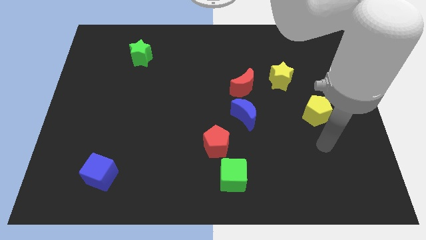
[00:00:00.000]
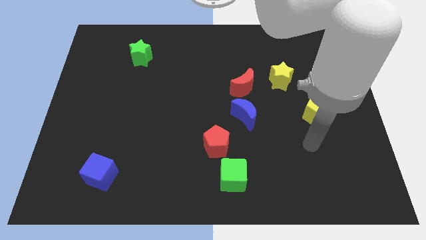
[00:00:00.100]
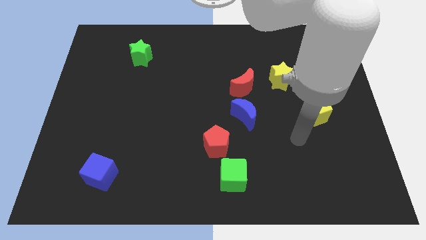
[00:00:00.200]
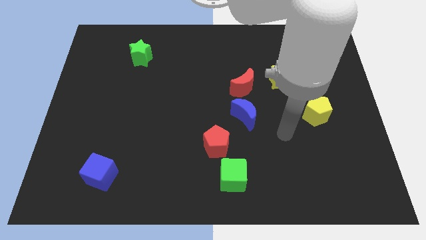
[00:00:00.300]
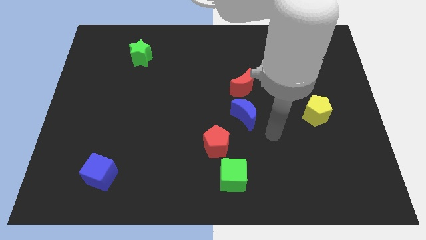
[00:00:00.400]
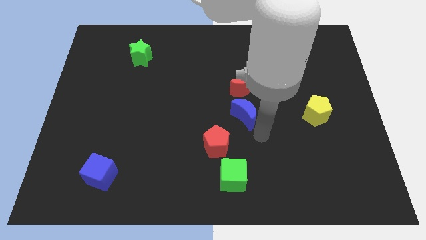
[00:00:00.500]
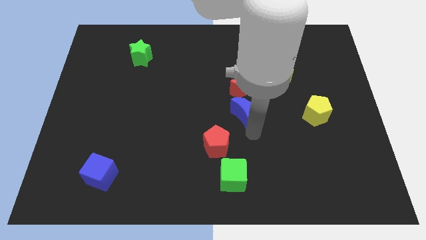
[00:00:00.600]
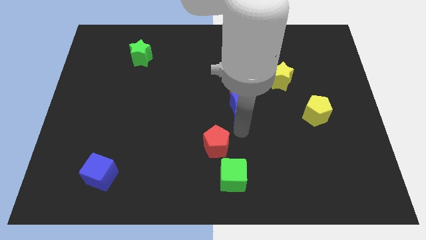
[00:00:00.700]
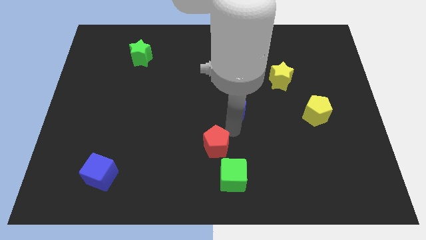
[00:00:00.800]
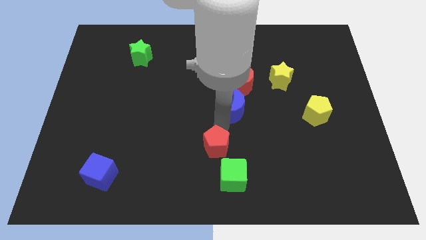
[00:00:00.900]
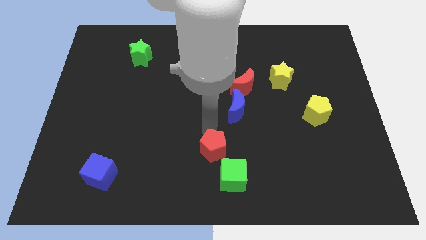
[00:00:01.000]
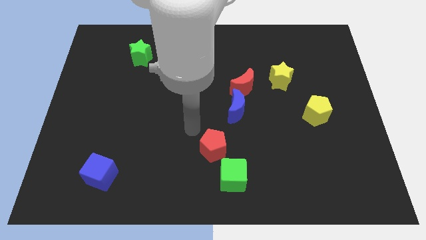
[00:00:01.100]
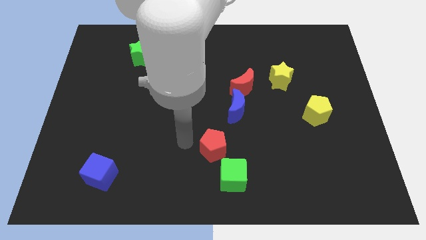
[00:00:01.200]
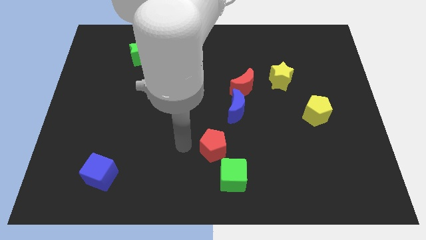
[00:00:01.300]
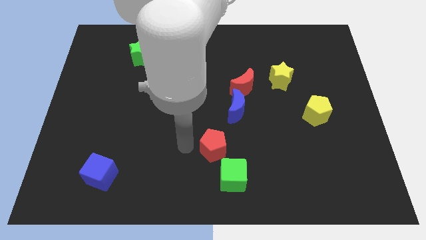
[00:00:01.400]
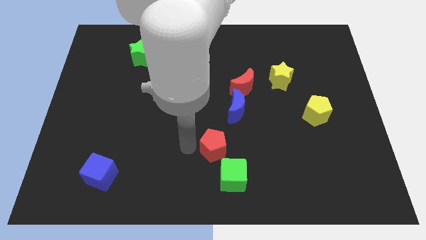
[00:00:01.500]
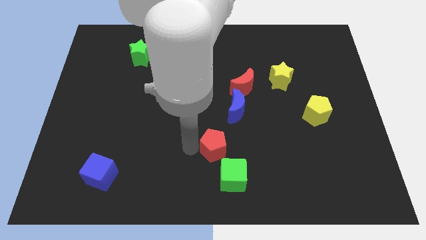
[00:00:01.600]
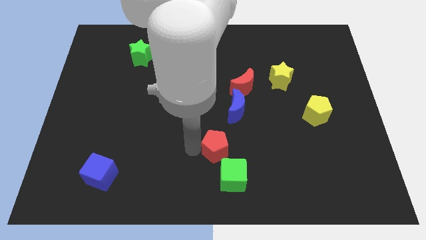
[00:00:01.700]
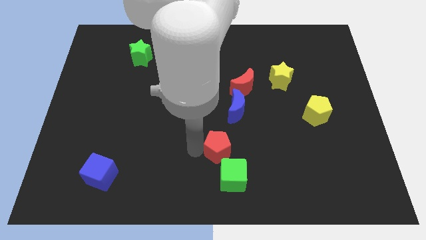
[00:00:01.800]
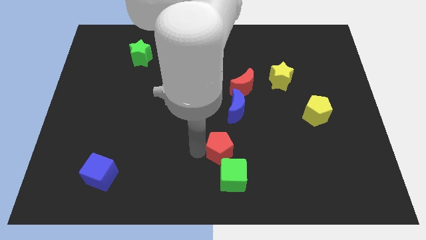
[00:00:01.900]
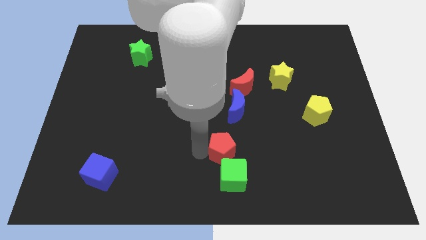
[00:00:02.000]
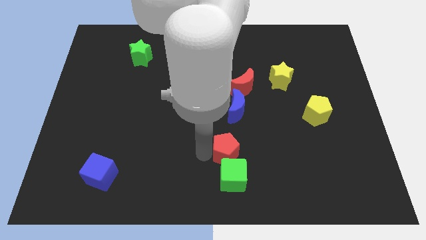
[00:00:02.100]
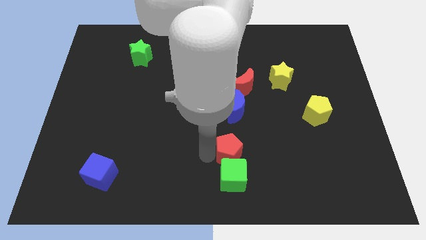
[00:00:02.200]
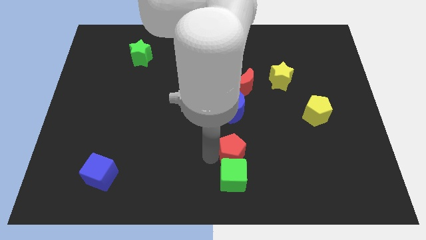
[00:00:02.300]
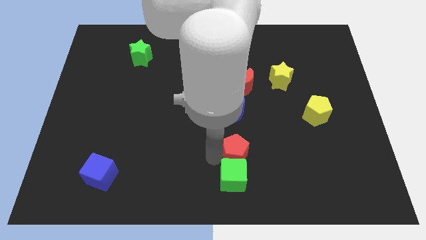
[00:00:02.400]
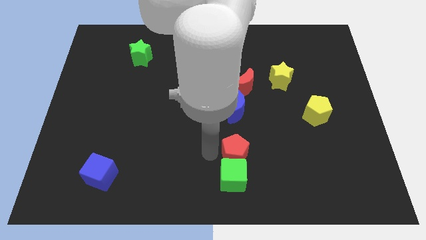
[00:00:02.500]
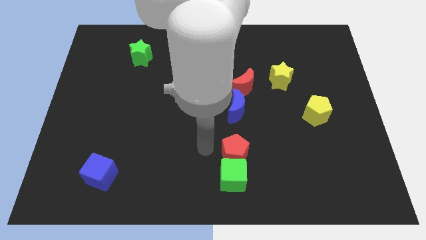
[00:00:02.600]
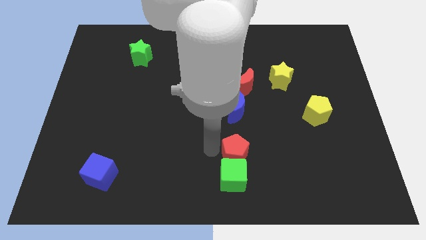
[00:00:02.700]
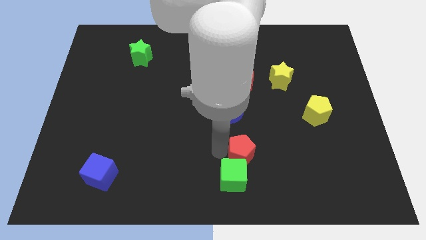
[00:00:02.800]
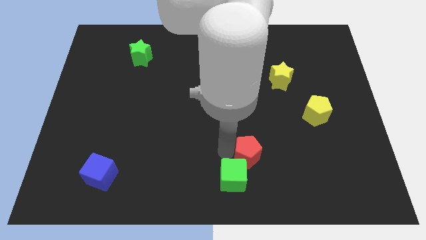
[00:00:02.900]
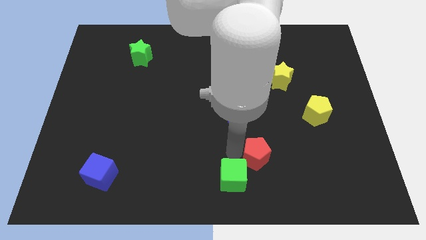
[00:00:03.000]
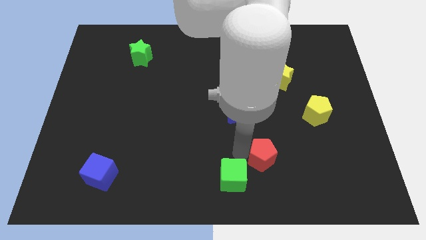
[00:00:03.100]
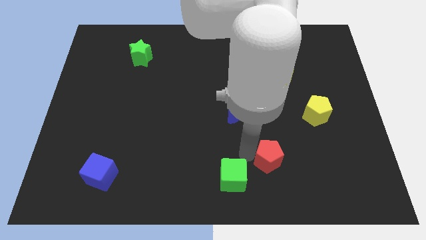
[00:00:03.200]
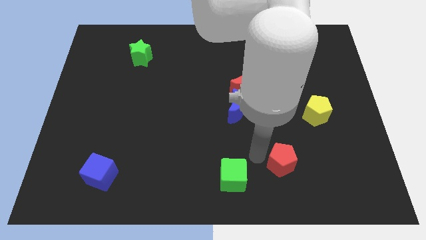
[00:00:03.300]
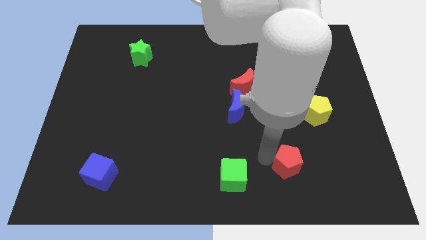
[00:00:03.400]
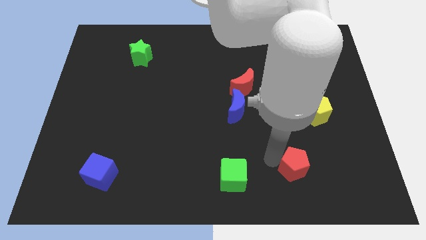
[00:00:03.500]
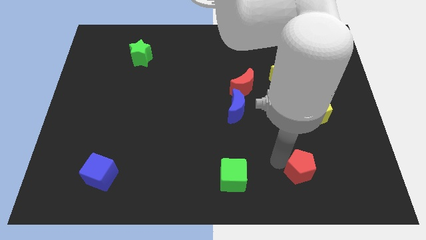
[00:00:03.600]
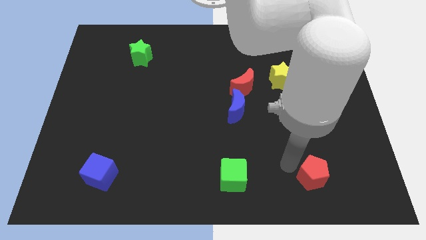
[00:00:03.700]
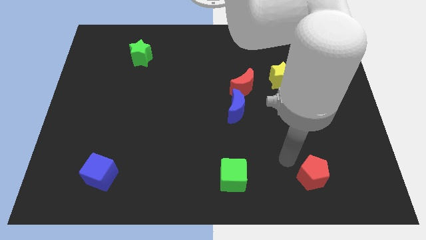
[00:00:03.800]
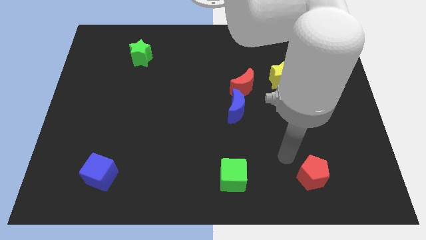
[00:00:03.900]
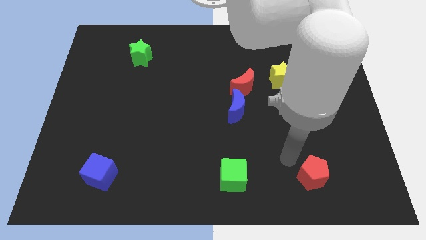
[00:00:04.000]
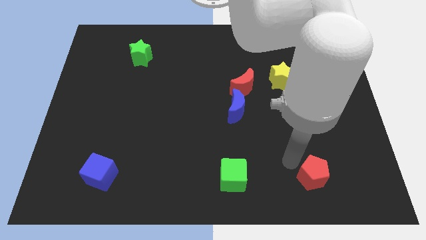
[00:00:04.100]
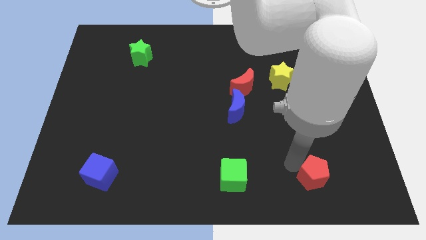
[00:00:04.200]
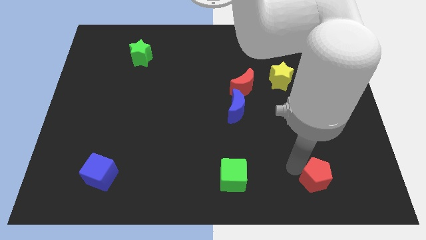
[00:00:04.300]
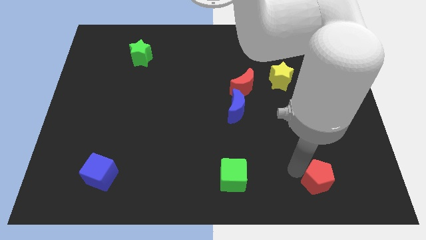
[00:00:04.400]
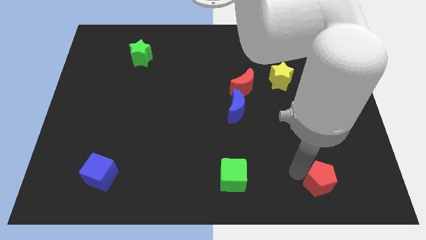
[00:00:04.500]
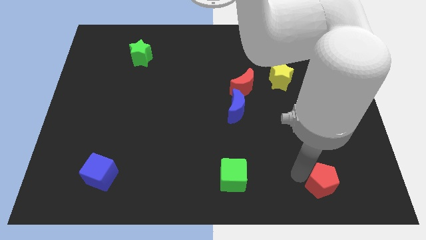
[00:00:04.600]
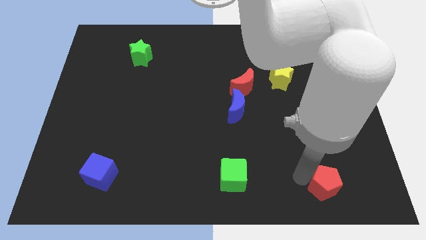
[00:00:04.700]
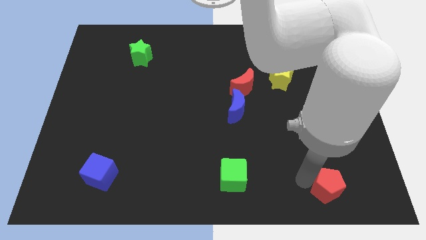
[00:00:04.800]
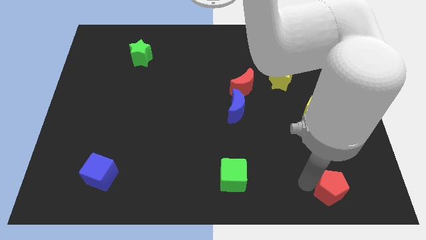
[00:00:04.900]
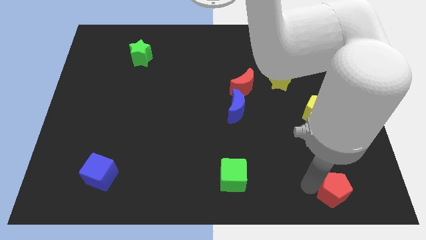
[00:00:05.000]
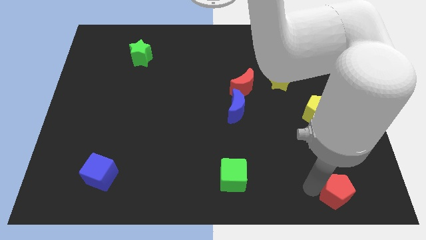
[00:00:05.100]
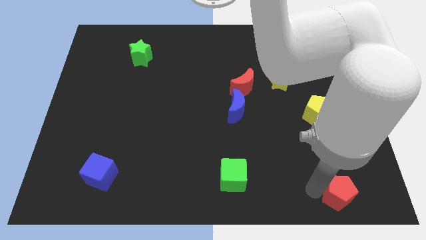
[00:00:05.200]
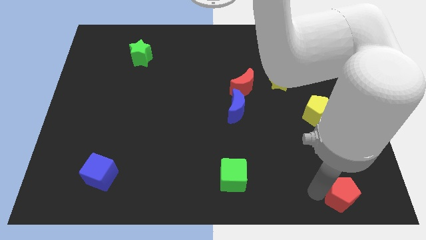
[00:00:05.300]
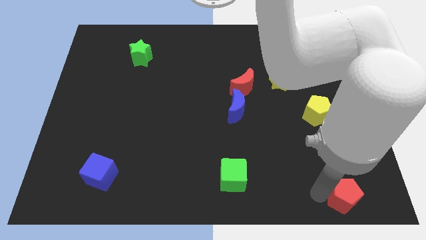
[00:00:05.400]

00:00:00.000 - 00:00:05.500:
slide the red pentagon to the bottom right of the board
